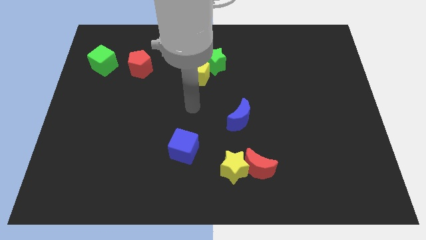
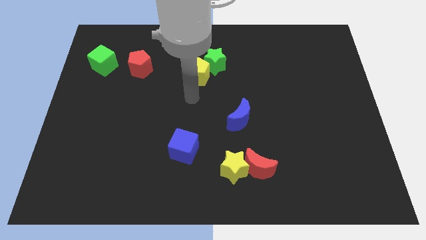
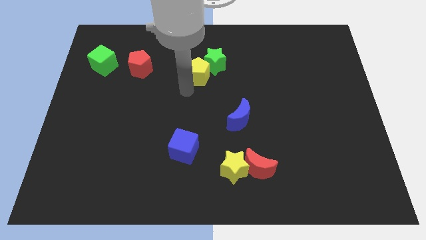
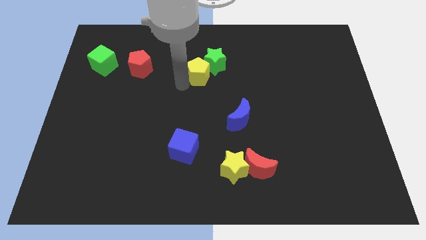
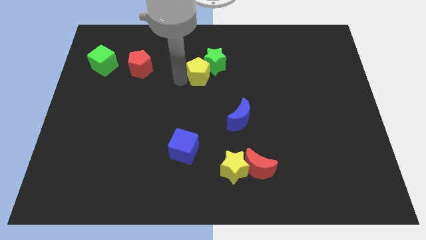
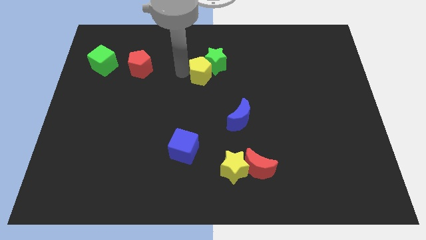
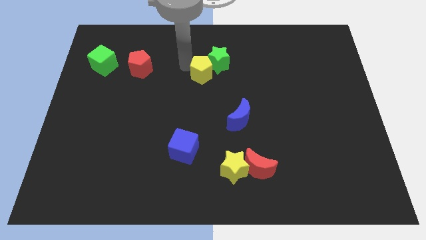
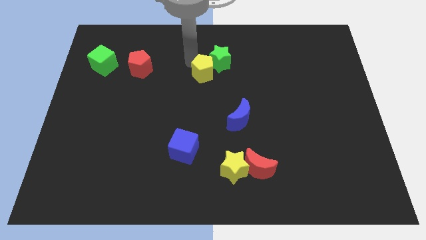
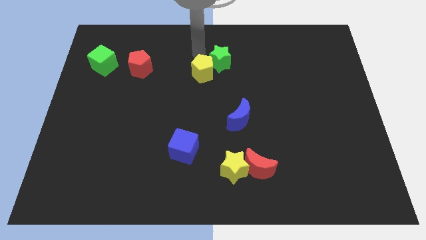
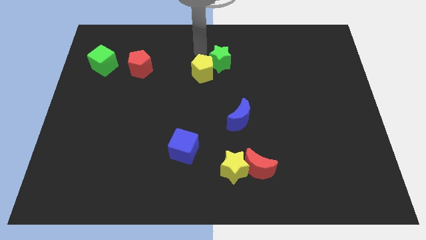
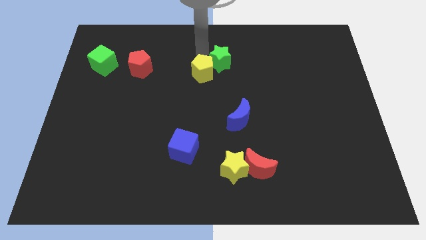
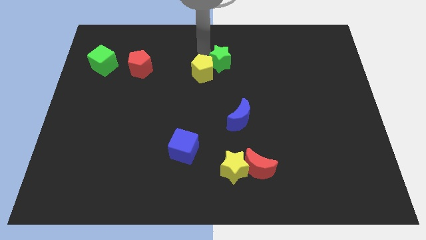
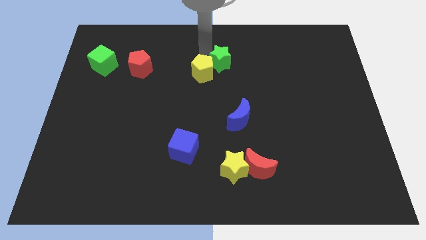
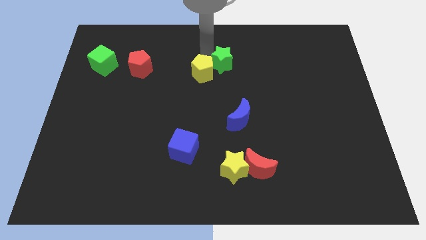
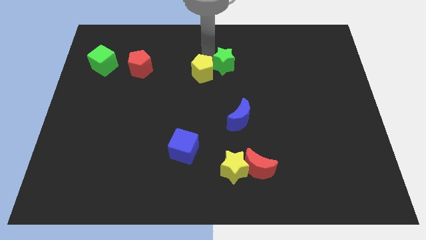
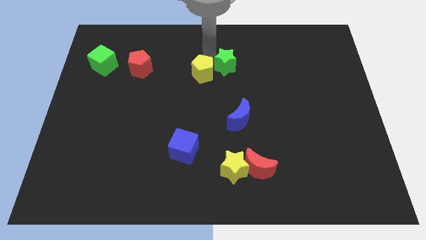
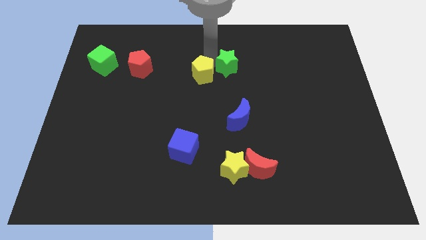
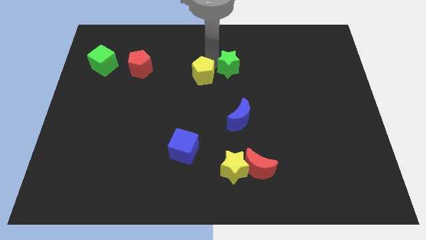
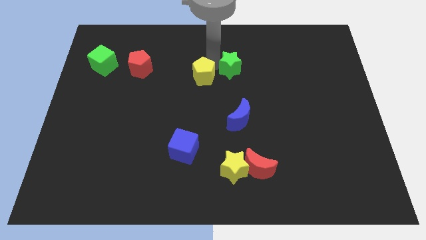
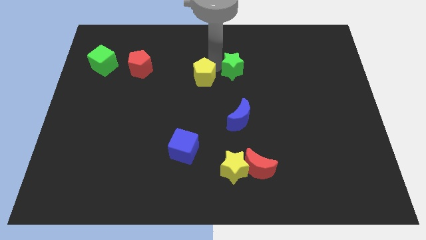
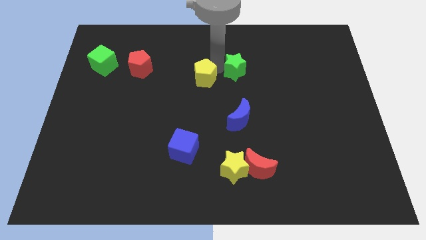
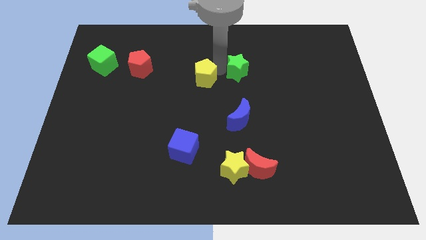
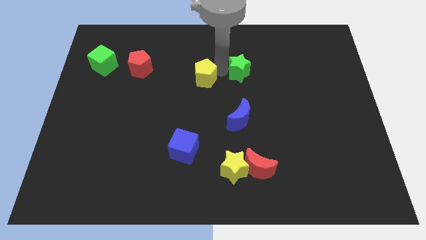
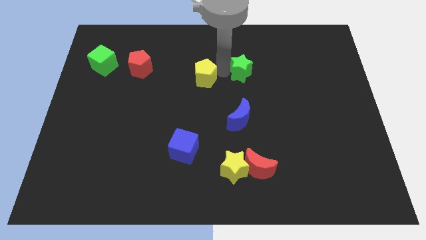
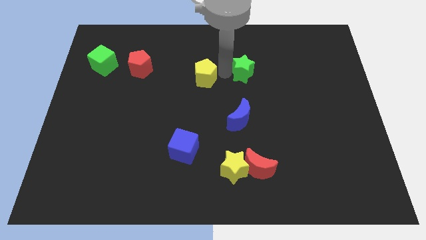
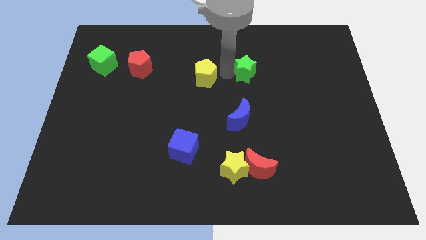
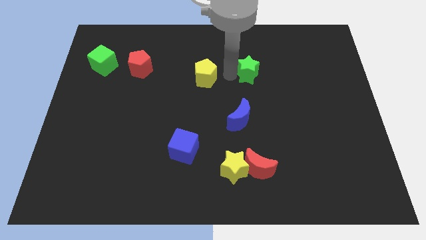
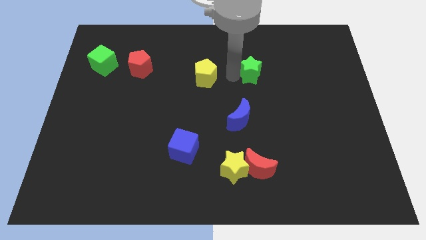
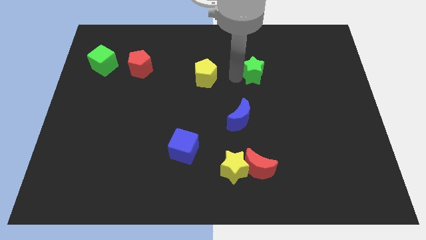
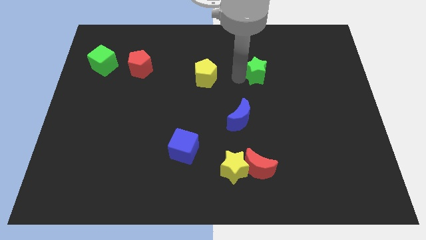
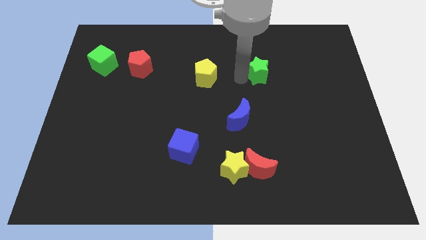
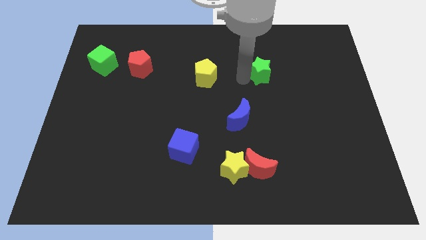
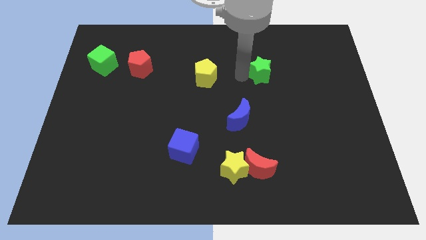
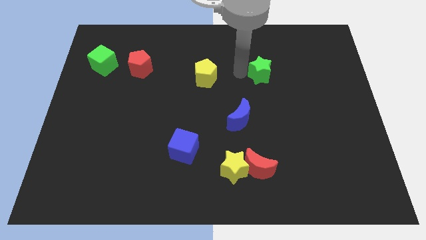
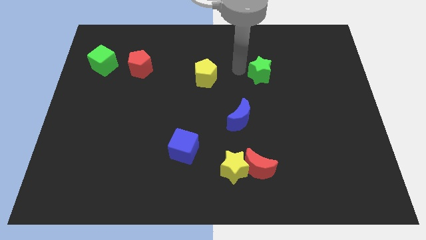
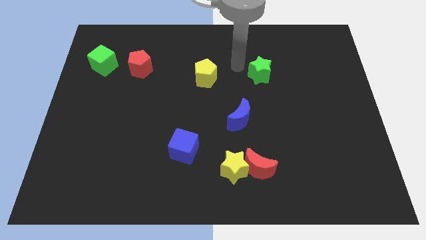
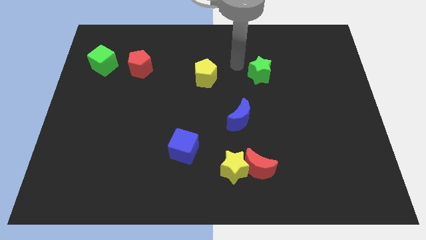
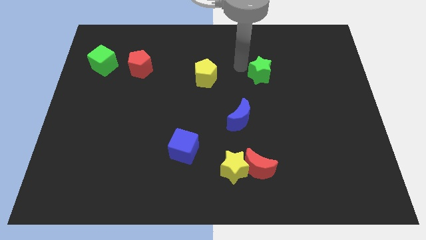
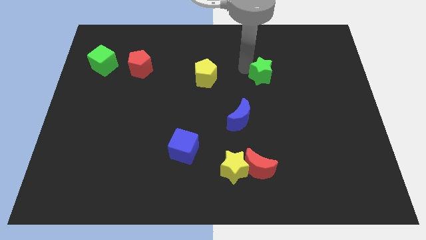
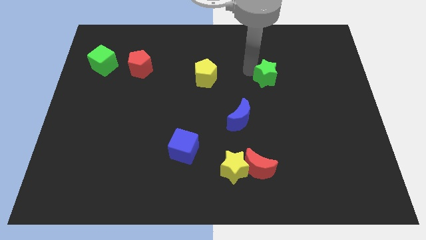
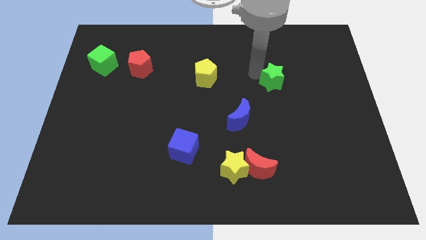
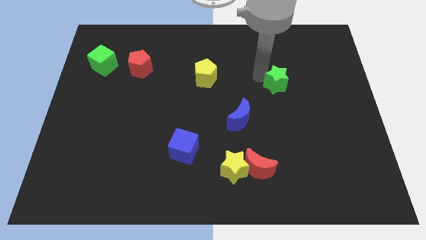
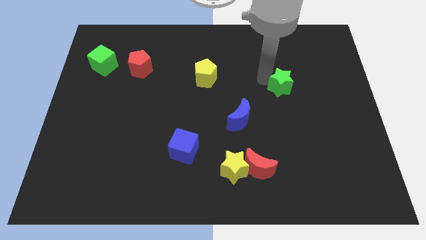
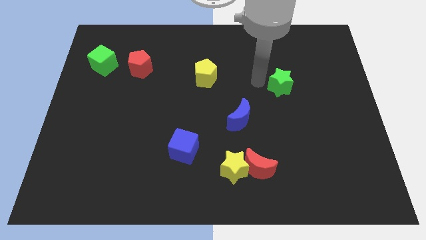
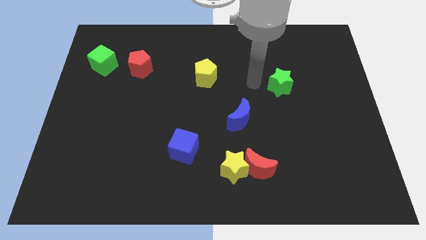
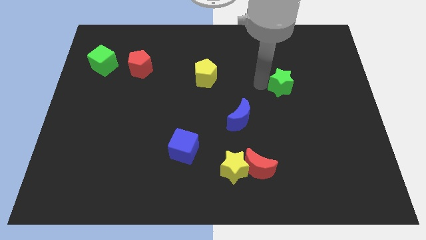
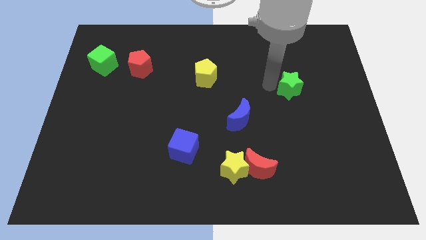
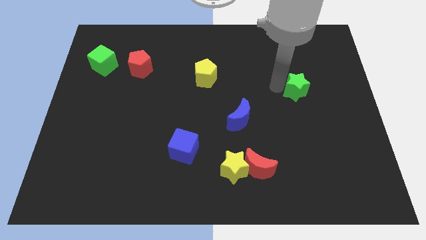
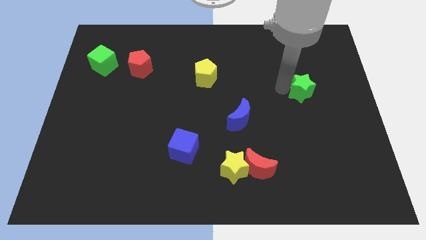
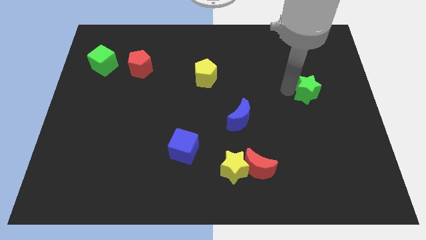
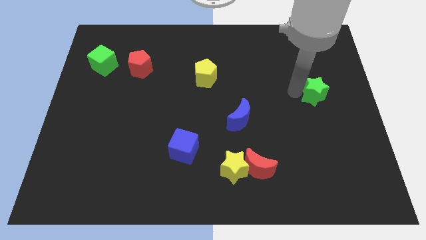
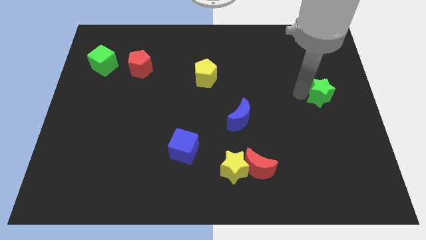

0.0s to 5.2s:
push the green star to the right side

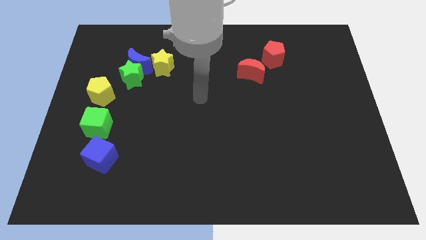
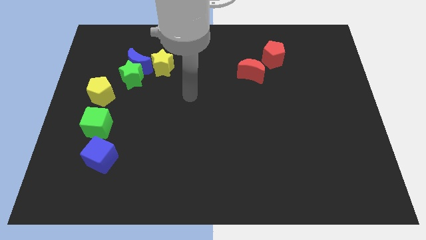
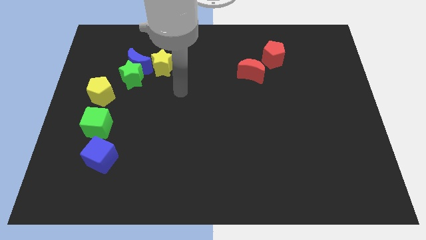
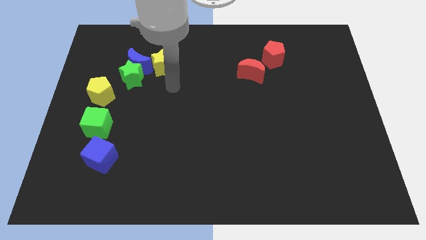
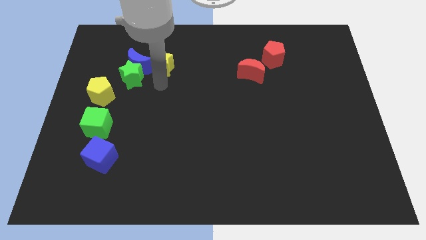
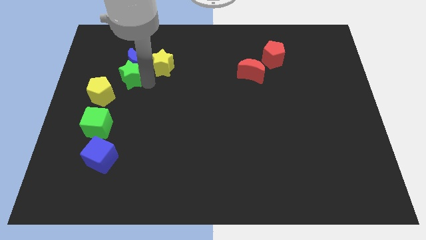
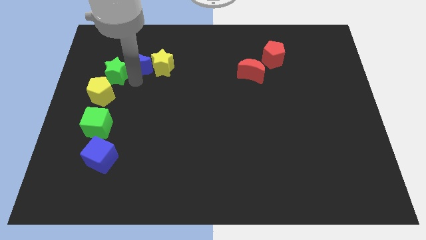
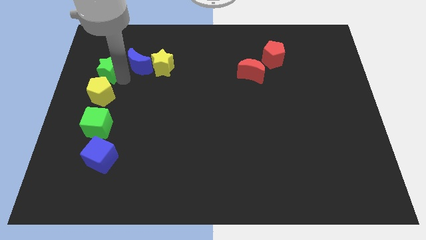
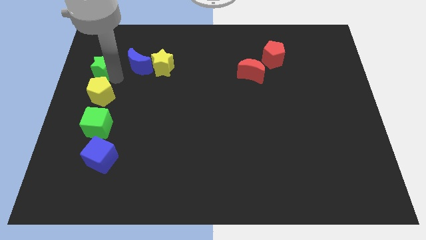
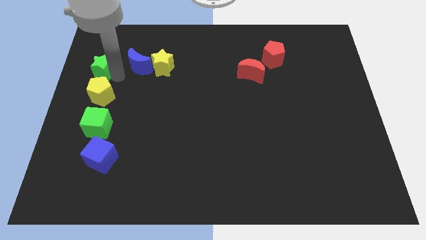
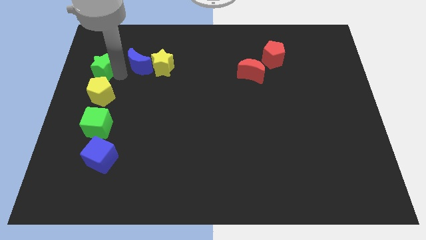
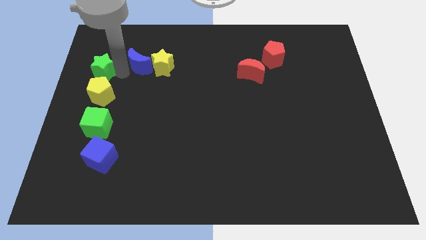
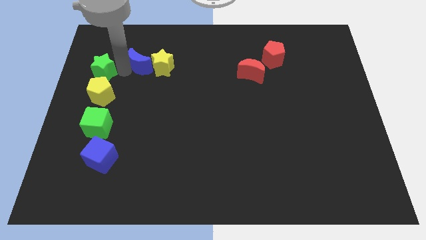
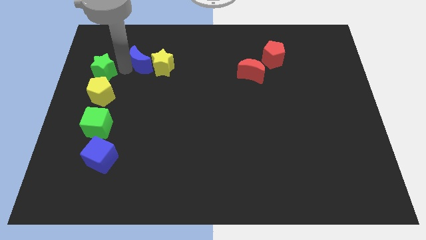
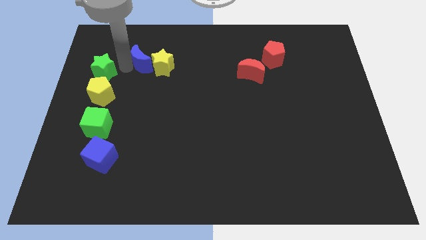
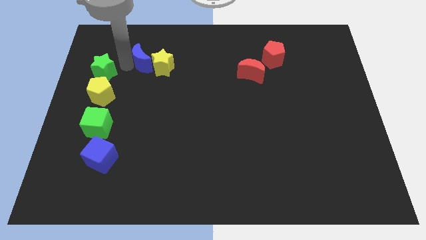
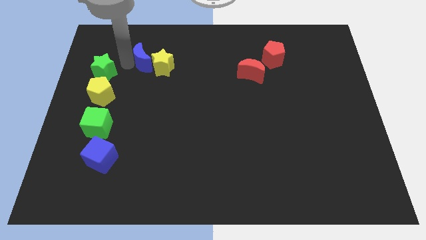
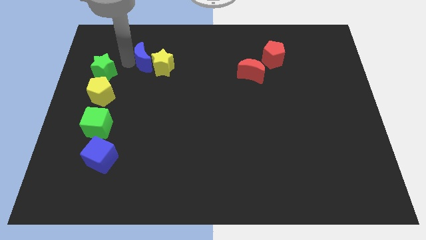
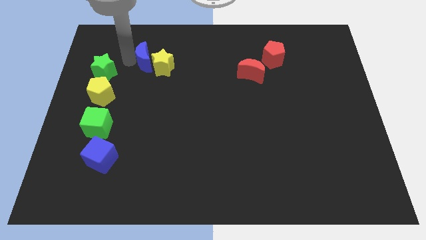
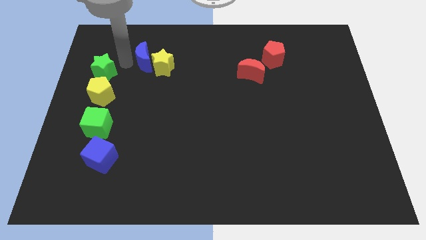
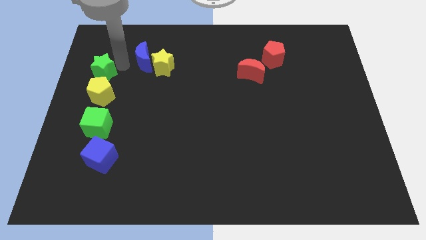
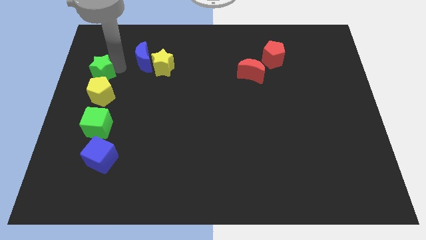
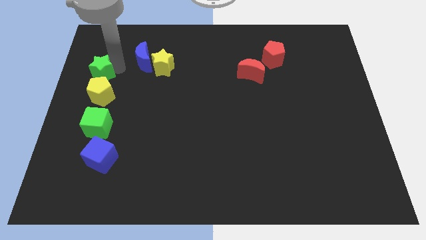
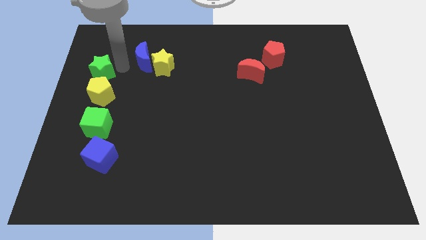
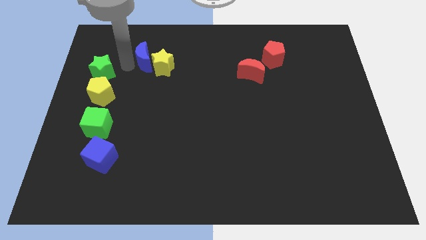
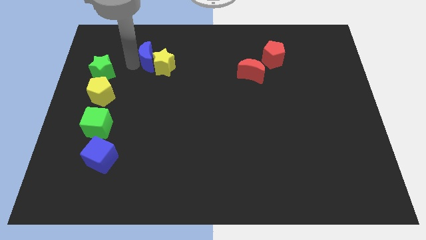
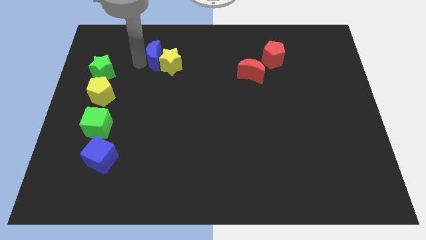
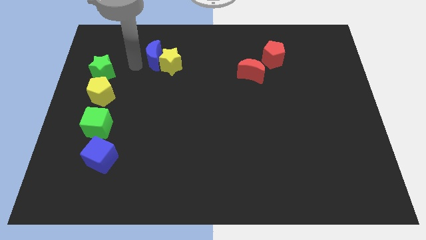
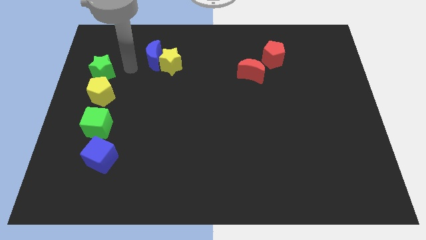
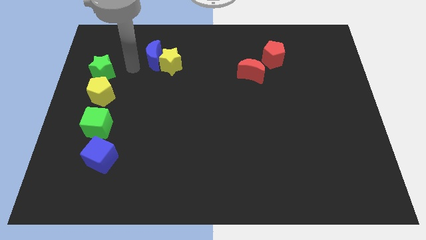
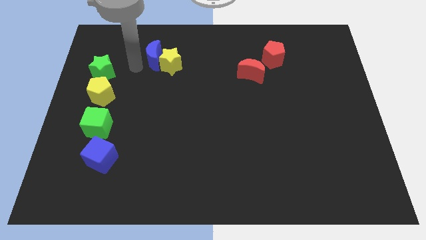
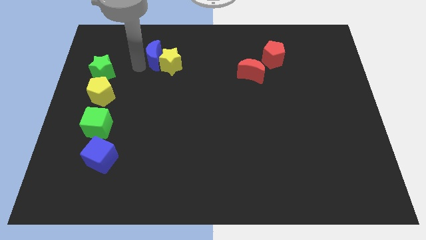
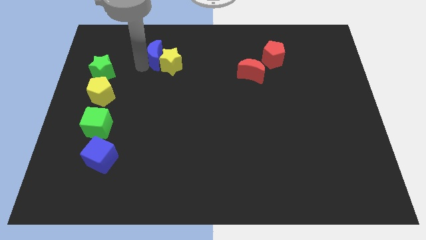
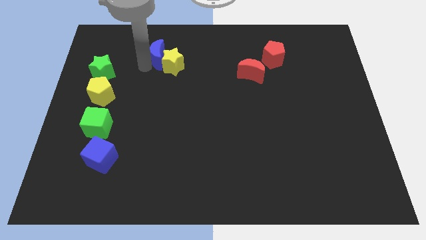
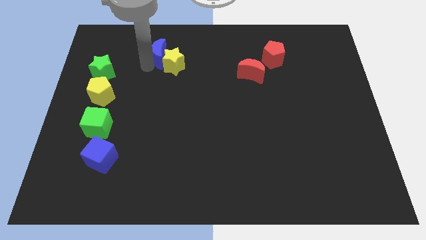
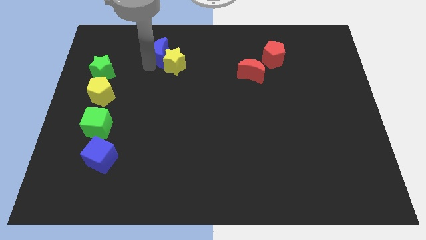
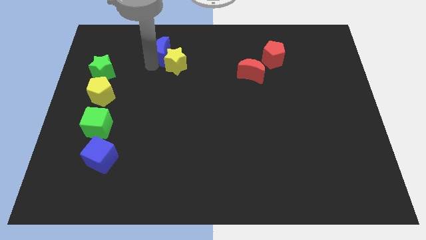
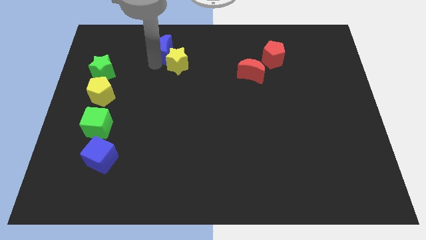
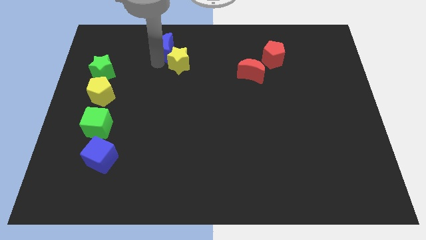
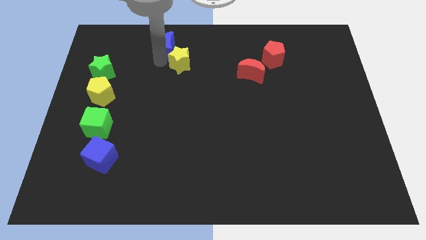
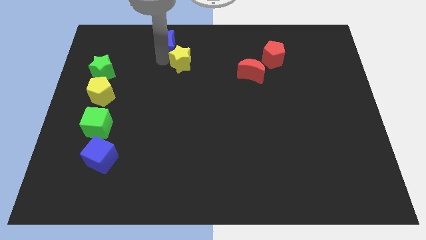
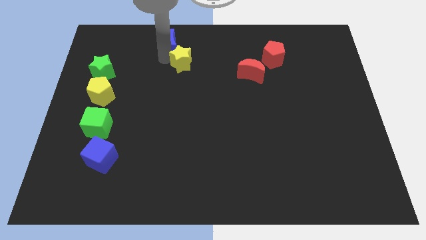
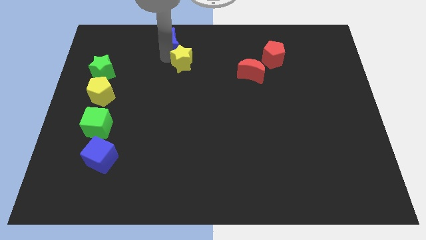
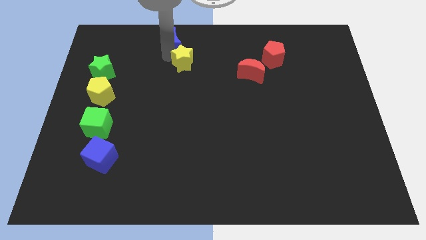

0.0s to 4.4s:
put the blue moon to the towards your base
